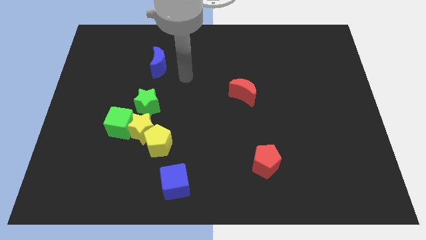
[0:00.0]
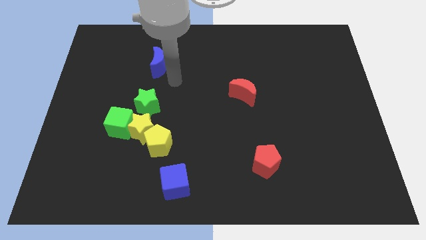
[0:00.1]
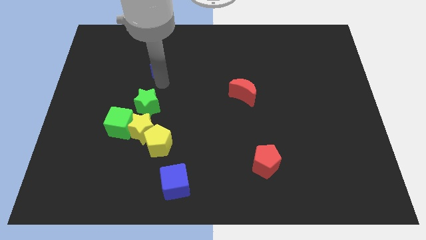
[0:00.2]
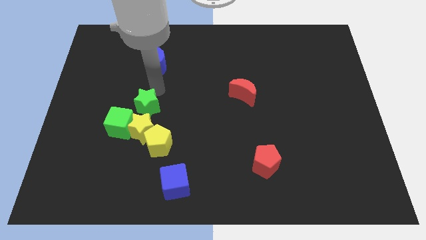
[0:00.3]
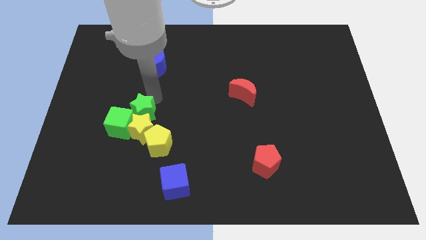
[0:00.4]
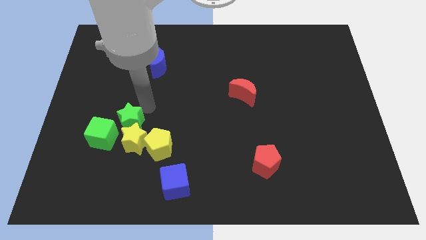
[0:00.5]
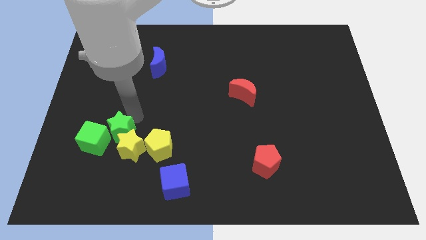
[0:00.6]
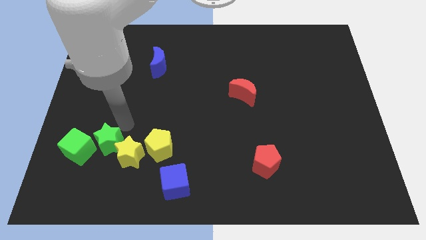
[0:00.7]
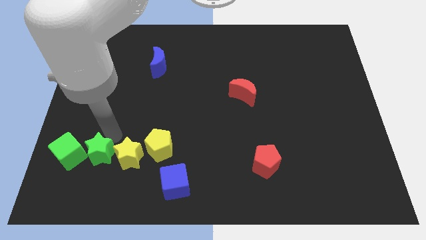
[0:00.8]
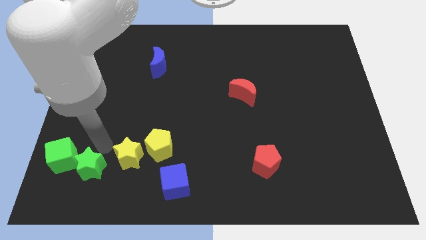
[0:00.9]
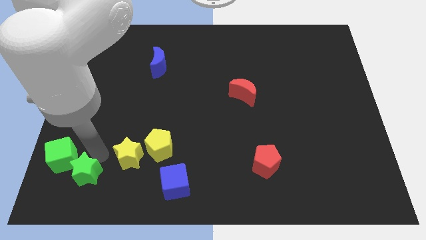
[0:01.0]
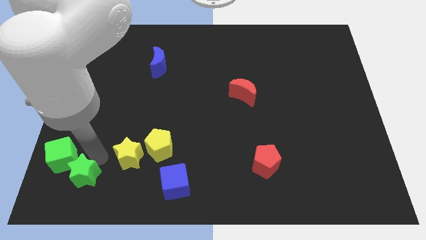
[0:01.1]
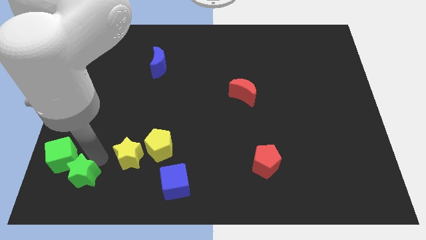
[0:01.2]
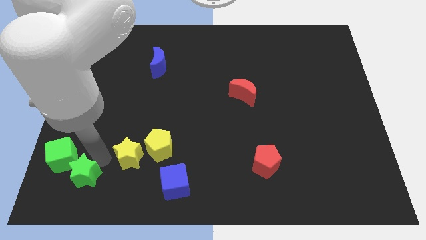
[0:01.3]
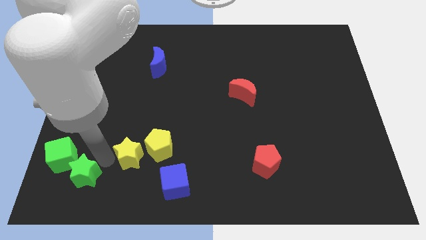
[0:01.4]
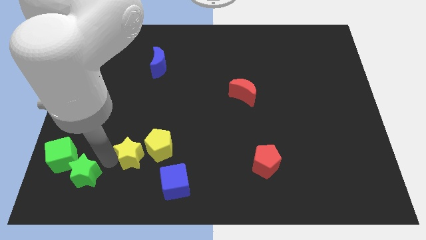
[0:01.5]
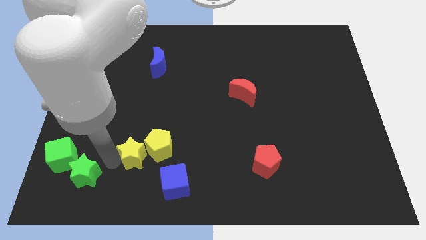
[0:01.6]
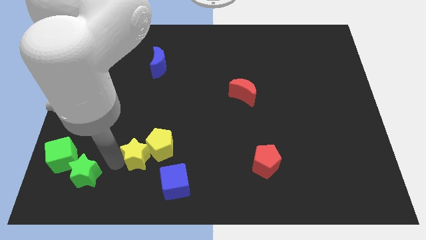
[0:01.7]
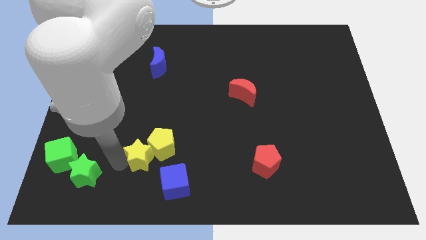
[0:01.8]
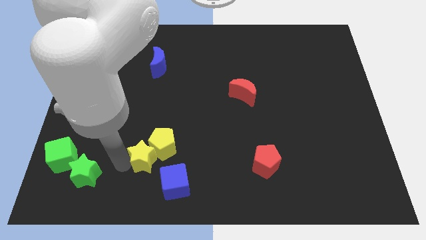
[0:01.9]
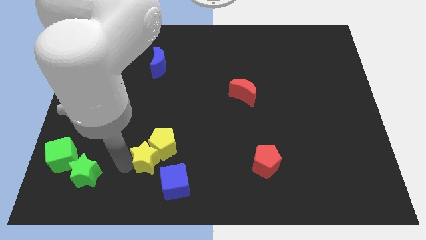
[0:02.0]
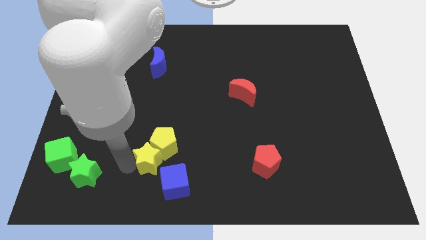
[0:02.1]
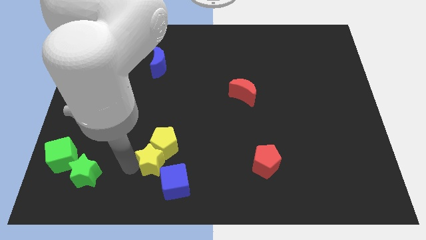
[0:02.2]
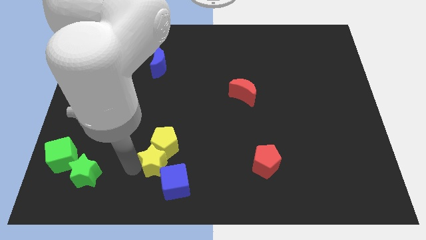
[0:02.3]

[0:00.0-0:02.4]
pull the yellow star apart from the green cube, yellow pentagon, and green star

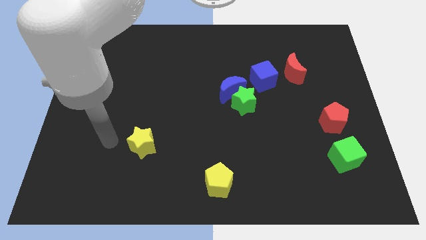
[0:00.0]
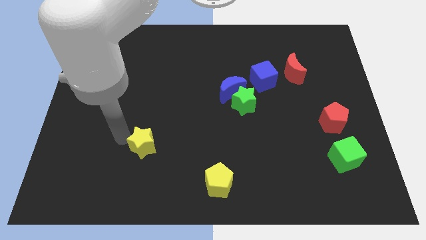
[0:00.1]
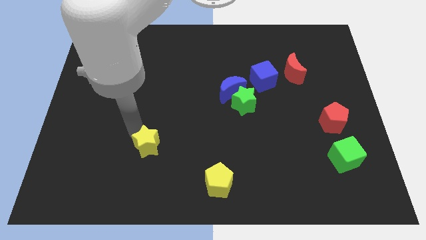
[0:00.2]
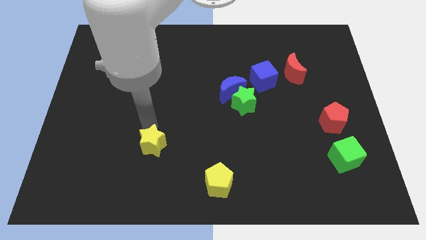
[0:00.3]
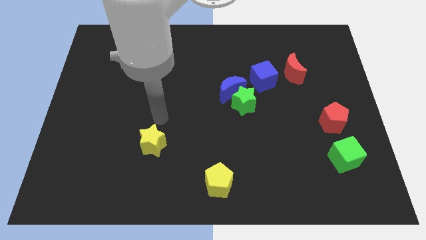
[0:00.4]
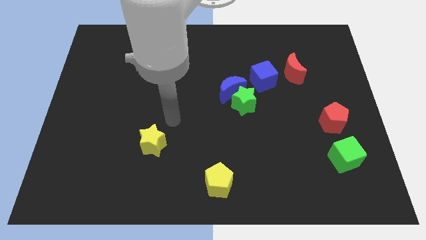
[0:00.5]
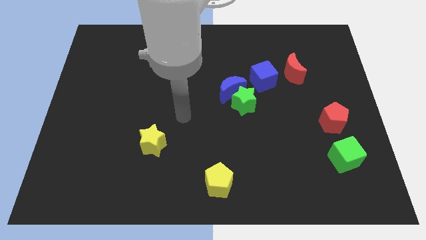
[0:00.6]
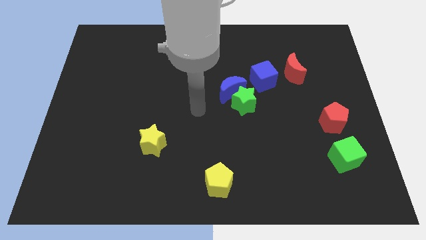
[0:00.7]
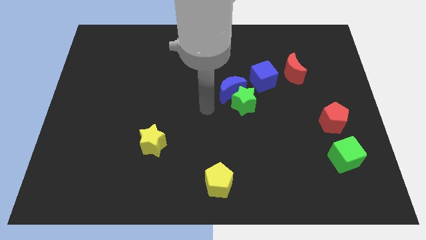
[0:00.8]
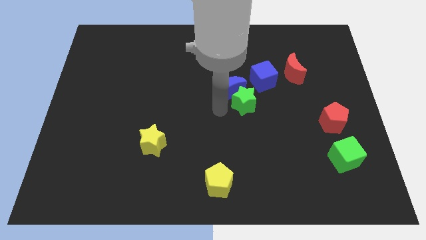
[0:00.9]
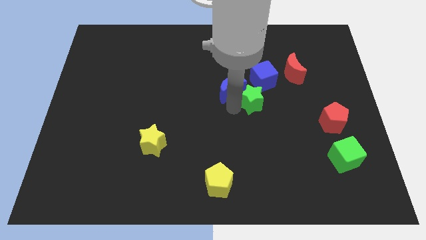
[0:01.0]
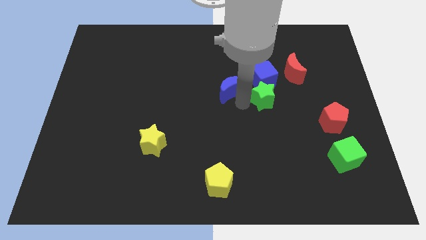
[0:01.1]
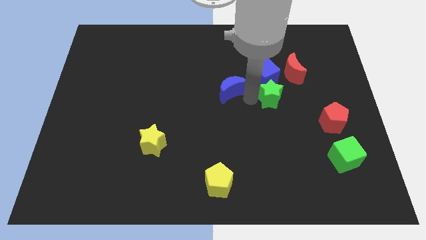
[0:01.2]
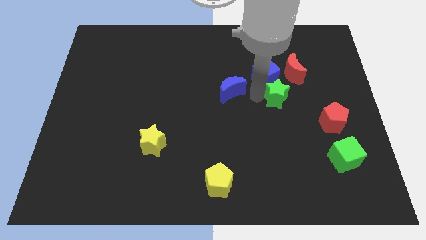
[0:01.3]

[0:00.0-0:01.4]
pull the blue moon apart from the green star and blue cube

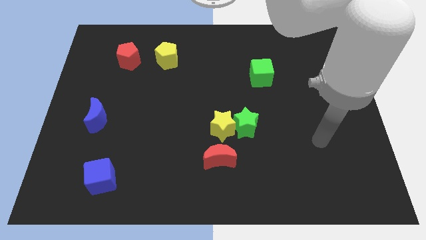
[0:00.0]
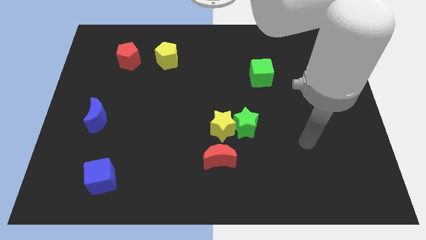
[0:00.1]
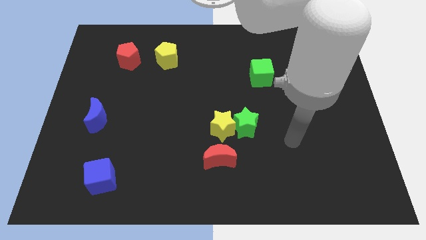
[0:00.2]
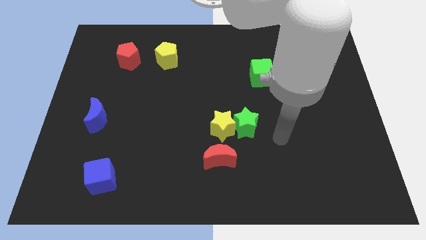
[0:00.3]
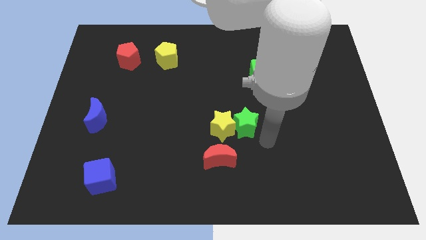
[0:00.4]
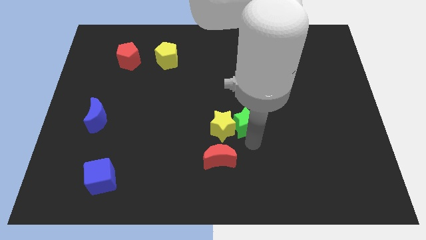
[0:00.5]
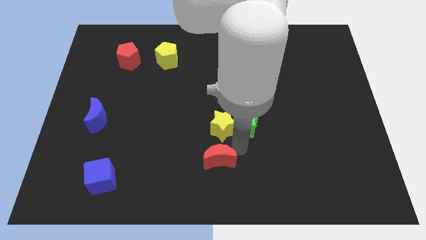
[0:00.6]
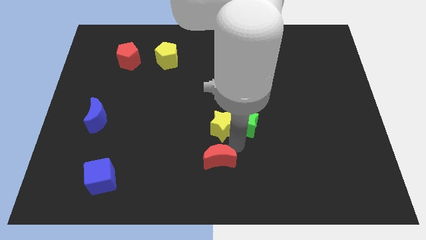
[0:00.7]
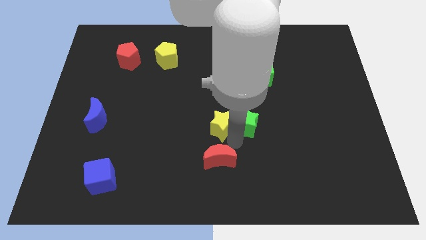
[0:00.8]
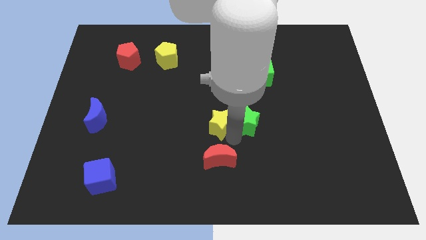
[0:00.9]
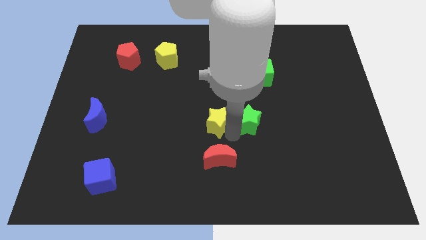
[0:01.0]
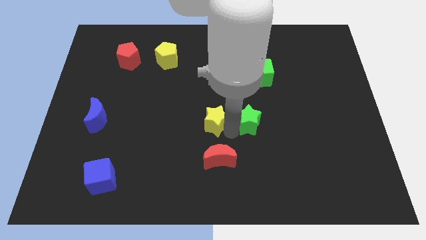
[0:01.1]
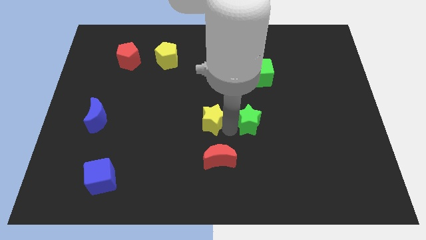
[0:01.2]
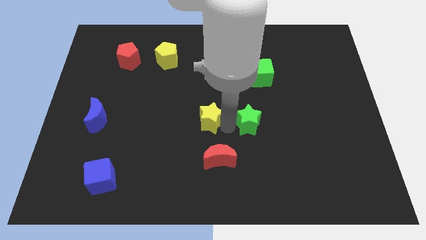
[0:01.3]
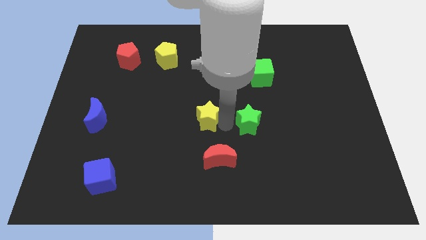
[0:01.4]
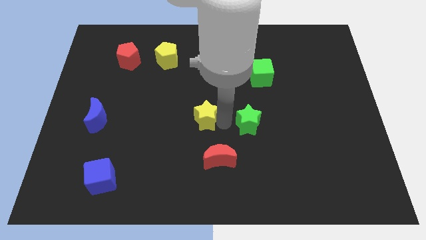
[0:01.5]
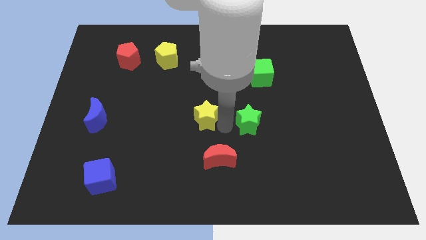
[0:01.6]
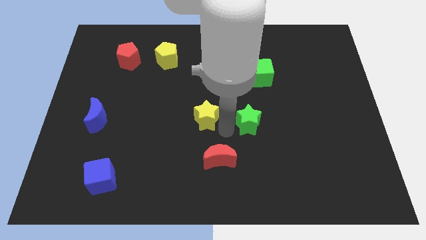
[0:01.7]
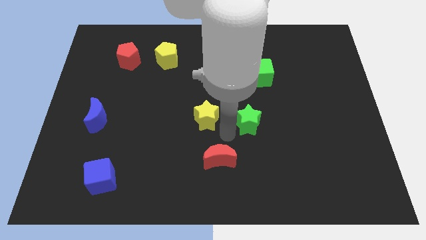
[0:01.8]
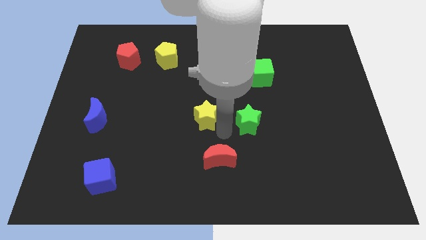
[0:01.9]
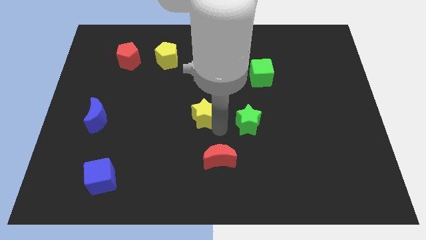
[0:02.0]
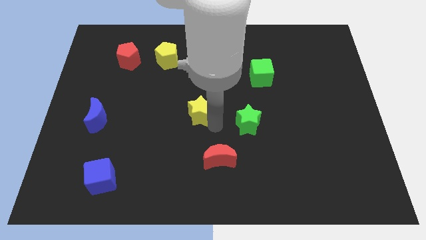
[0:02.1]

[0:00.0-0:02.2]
move the yellow star away from the green star and red moon

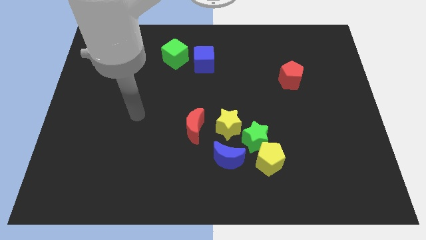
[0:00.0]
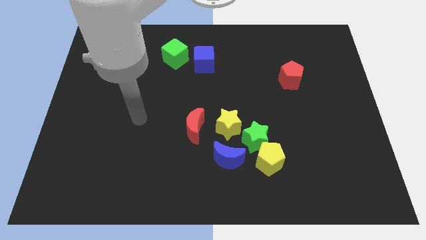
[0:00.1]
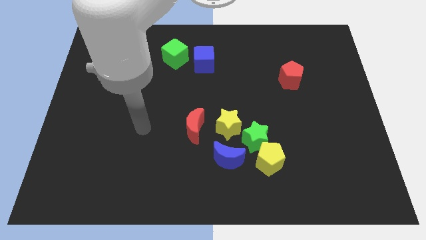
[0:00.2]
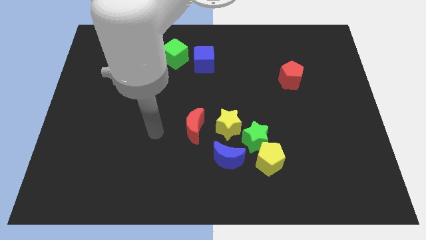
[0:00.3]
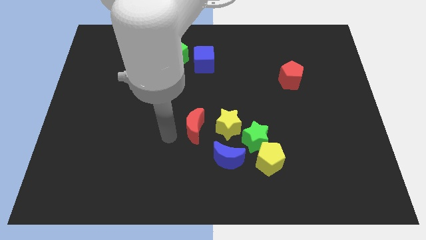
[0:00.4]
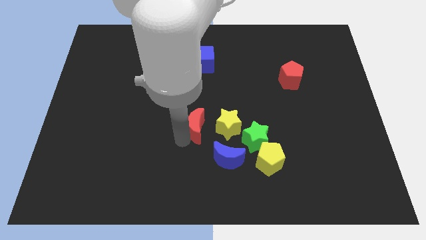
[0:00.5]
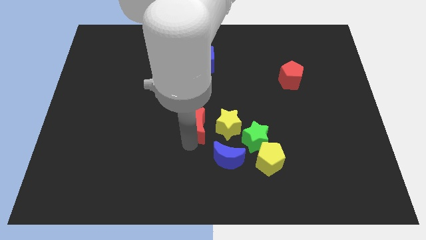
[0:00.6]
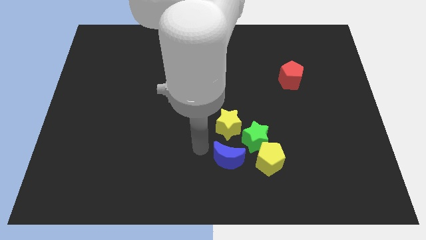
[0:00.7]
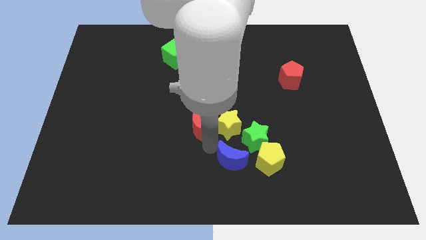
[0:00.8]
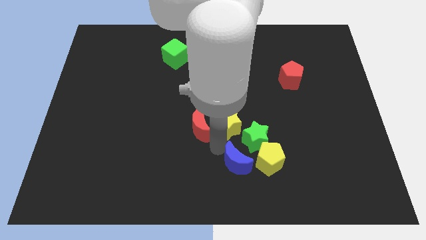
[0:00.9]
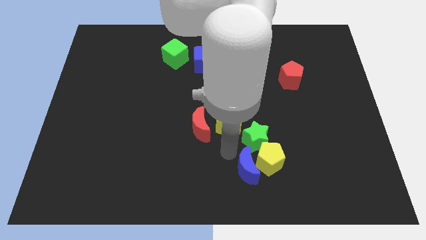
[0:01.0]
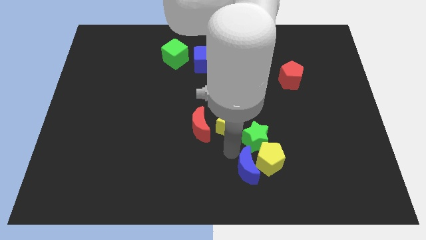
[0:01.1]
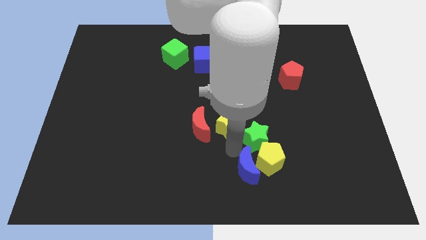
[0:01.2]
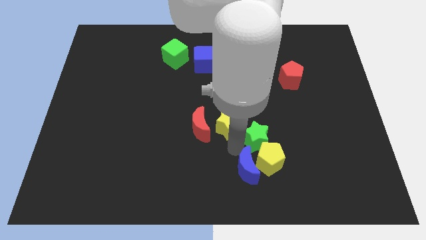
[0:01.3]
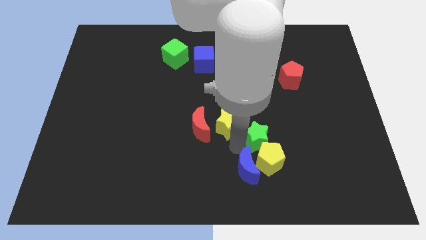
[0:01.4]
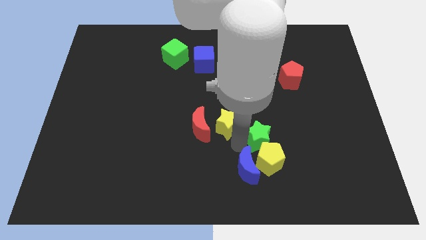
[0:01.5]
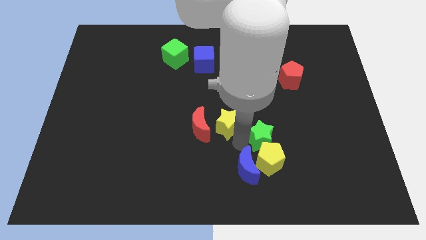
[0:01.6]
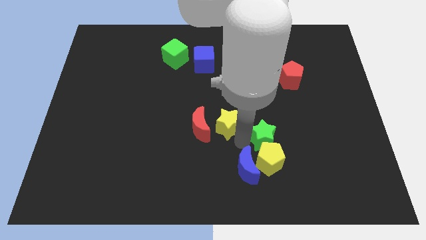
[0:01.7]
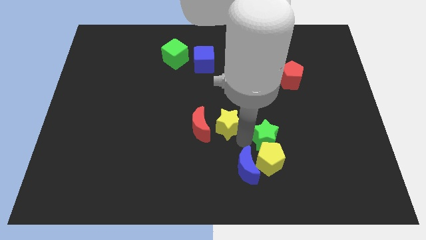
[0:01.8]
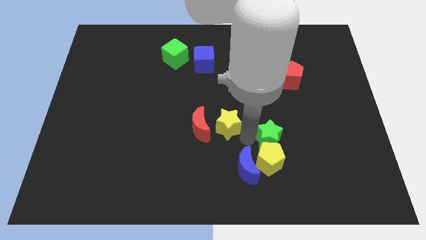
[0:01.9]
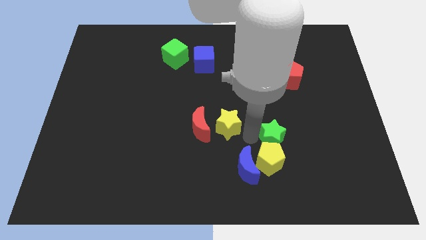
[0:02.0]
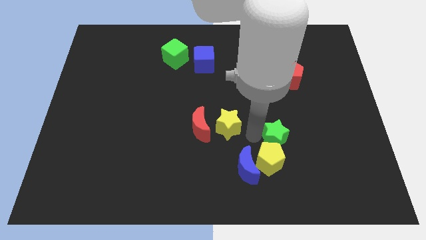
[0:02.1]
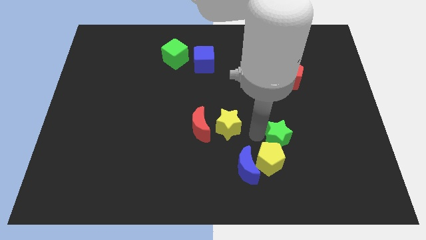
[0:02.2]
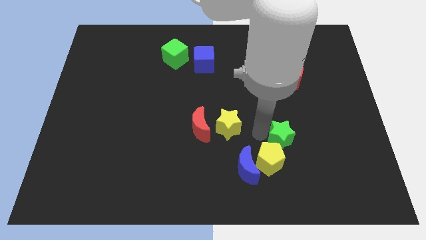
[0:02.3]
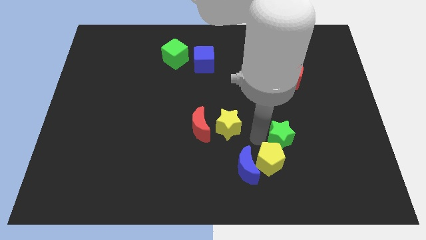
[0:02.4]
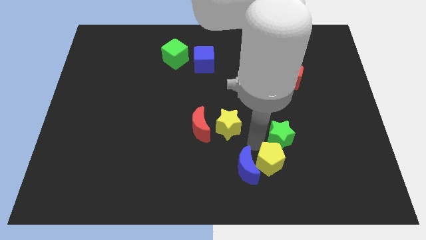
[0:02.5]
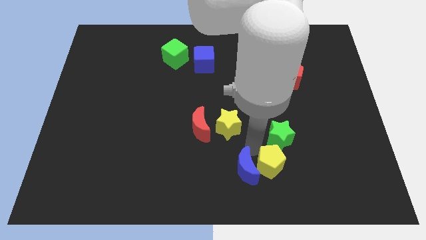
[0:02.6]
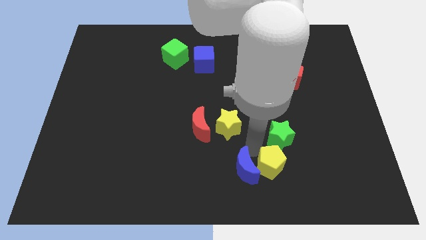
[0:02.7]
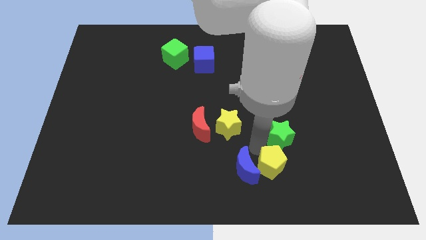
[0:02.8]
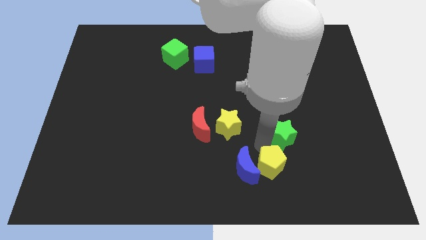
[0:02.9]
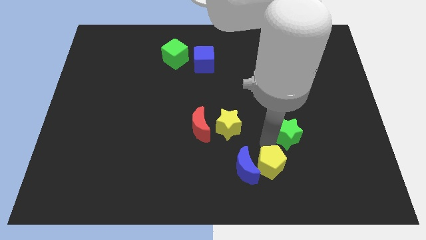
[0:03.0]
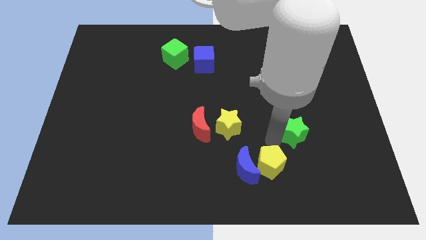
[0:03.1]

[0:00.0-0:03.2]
separate the green star from the clump

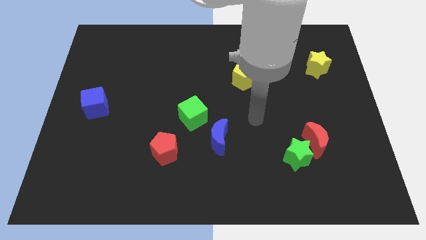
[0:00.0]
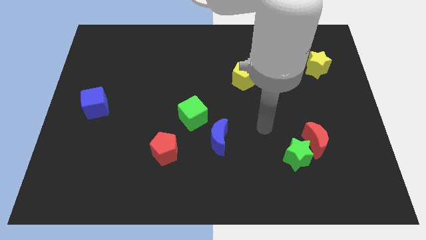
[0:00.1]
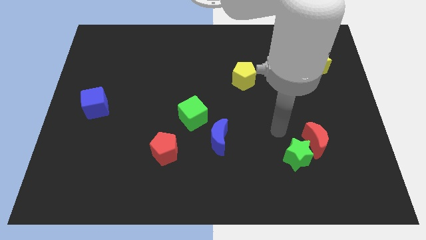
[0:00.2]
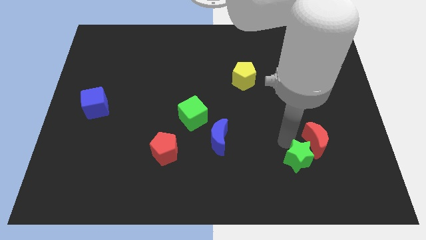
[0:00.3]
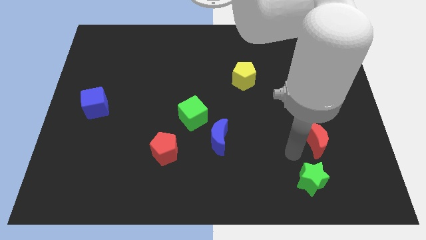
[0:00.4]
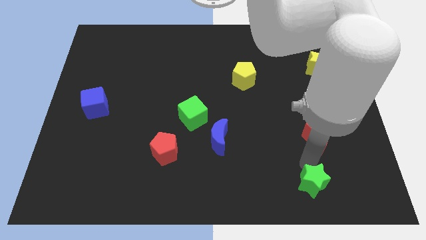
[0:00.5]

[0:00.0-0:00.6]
separate the red moon from the green star
